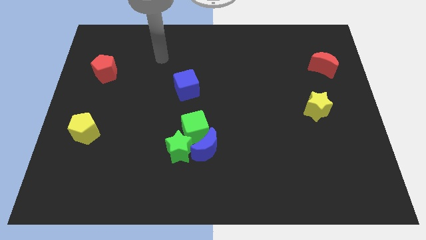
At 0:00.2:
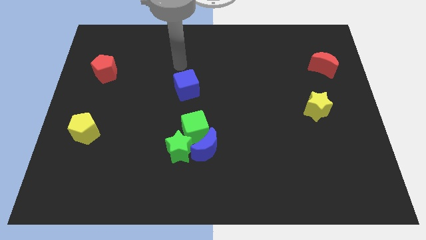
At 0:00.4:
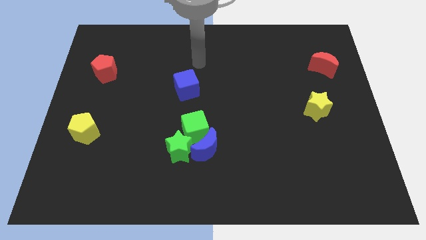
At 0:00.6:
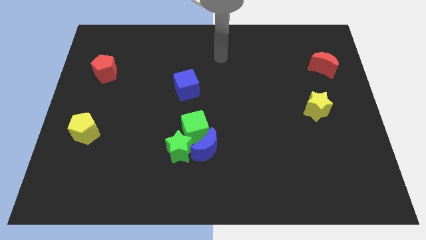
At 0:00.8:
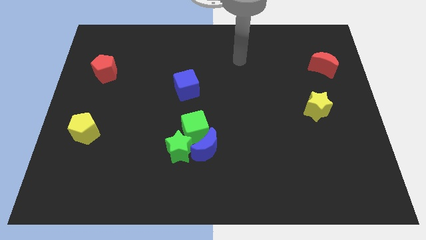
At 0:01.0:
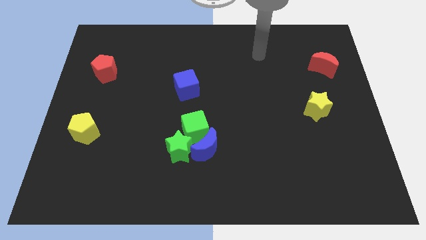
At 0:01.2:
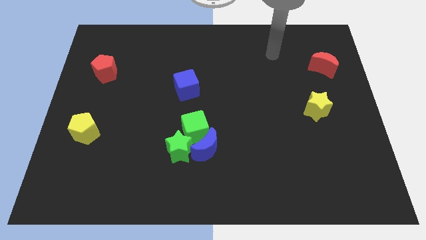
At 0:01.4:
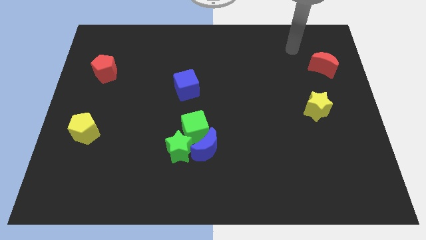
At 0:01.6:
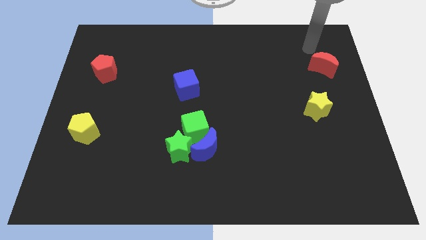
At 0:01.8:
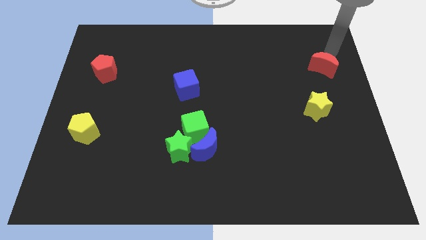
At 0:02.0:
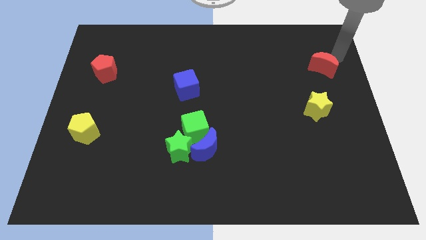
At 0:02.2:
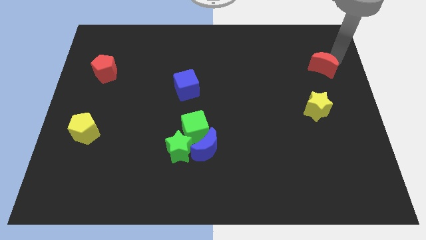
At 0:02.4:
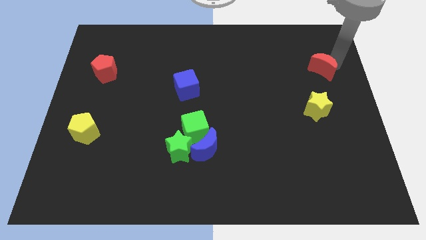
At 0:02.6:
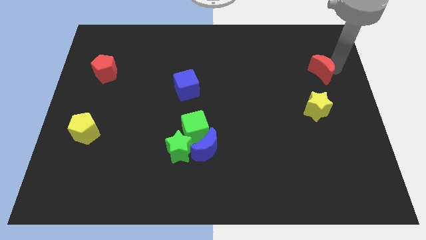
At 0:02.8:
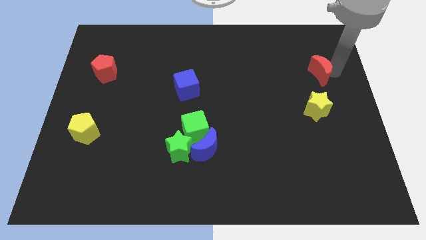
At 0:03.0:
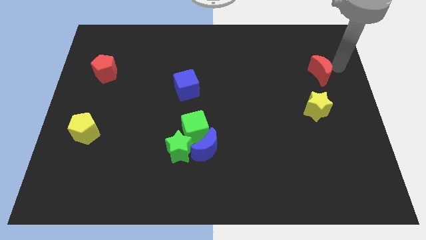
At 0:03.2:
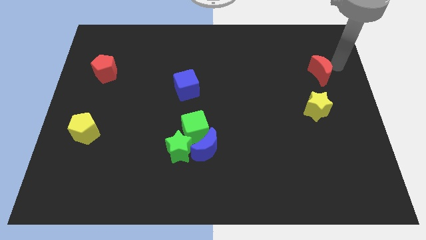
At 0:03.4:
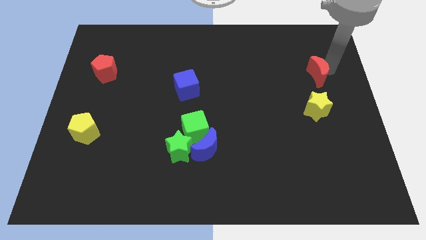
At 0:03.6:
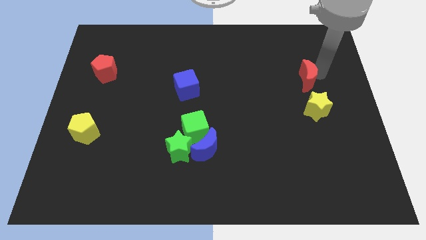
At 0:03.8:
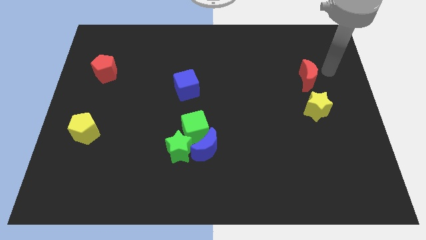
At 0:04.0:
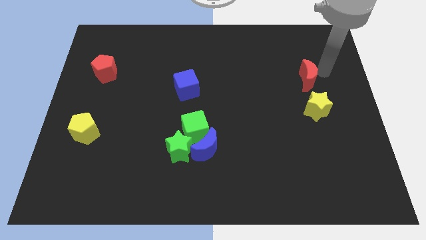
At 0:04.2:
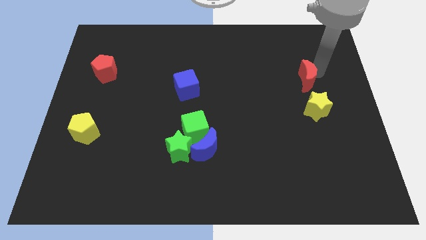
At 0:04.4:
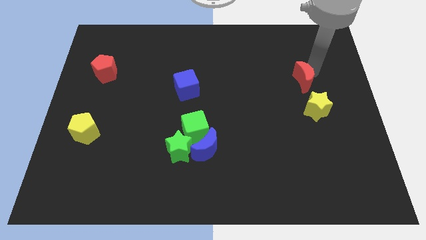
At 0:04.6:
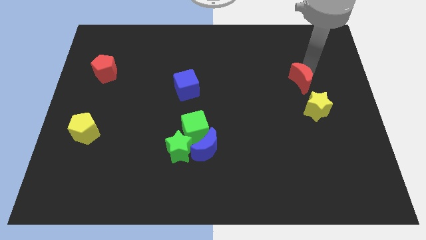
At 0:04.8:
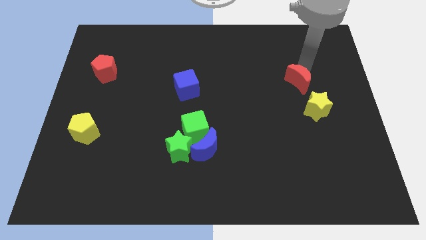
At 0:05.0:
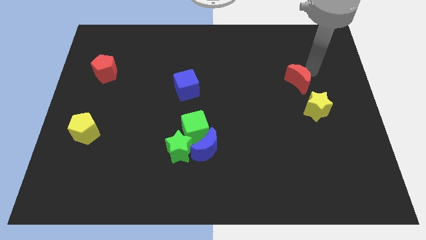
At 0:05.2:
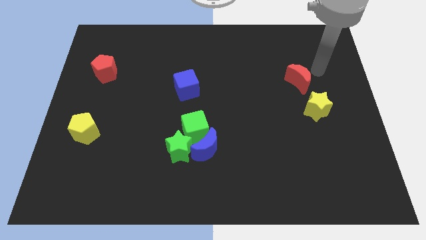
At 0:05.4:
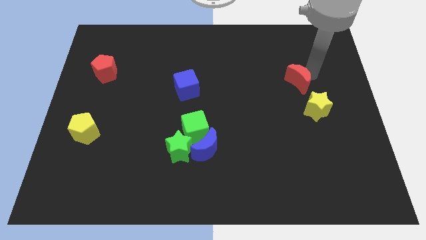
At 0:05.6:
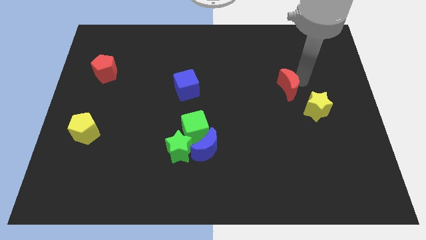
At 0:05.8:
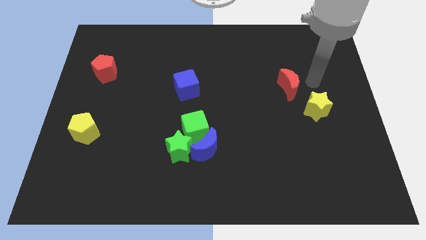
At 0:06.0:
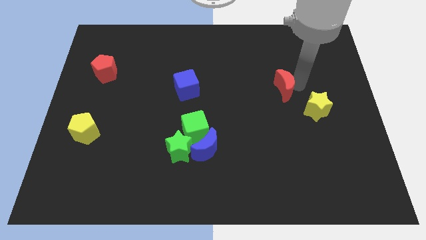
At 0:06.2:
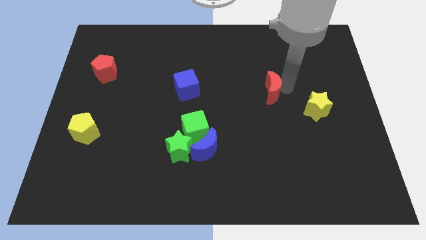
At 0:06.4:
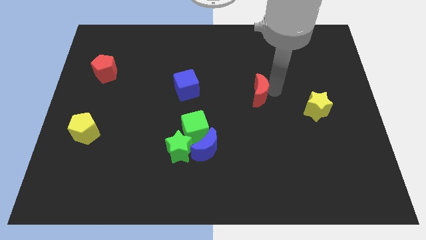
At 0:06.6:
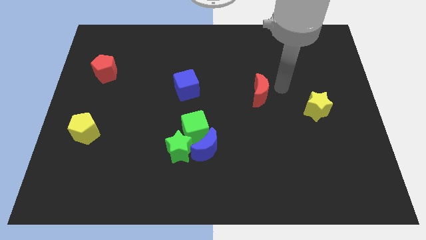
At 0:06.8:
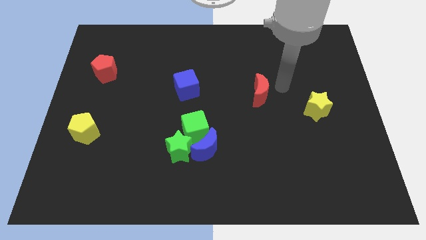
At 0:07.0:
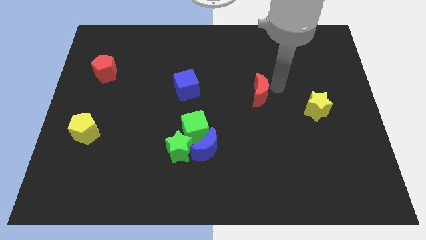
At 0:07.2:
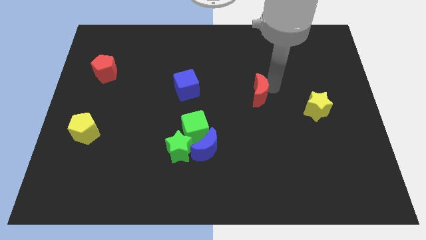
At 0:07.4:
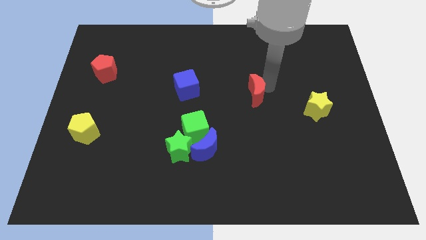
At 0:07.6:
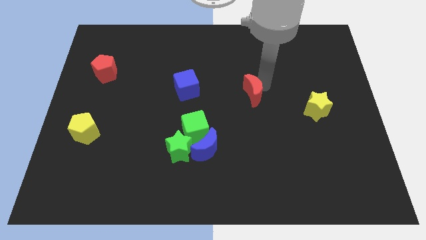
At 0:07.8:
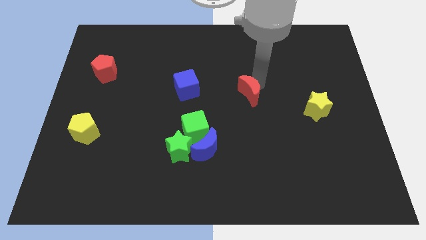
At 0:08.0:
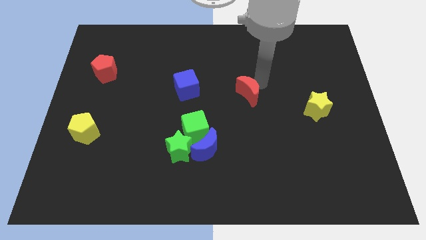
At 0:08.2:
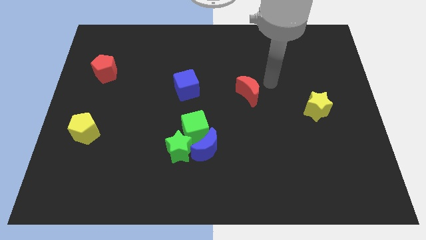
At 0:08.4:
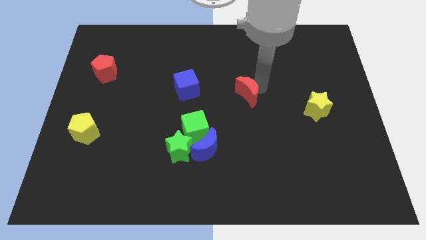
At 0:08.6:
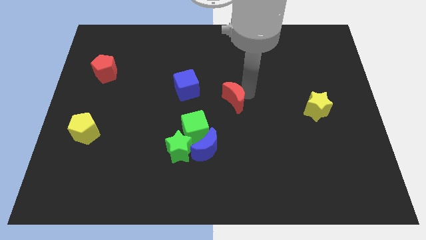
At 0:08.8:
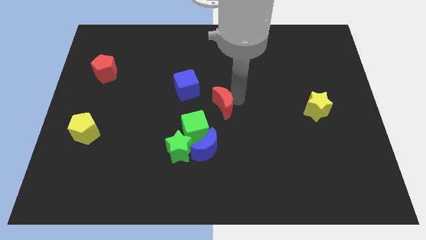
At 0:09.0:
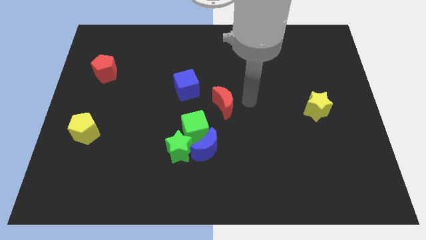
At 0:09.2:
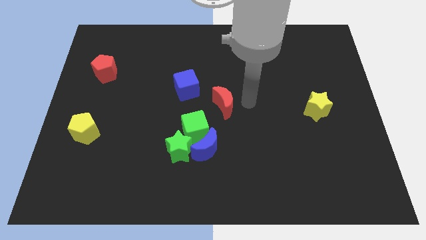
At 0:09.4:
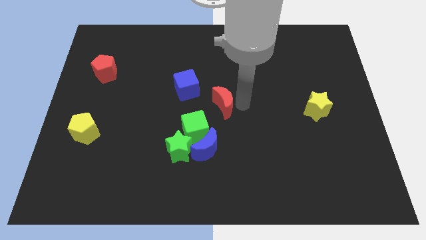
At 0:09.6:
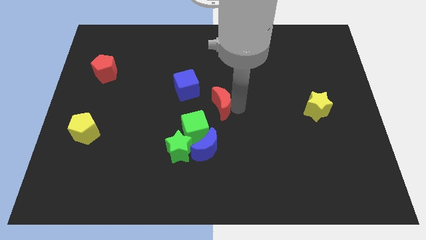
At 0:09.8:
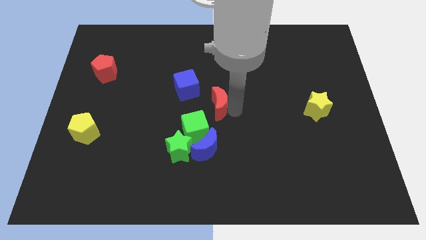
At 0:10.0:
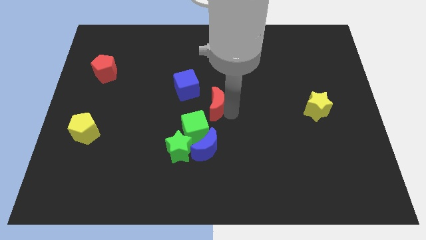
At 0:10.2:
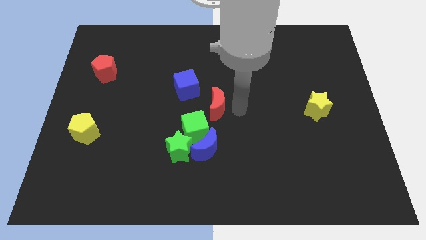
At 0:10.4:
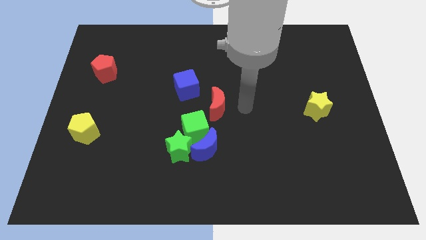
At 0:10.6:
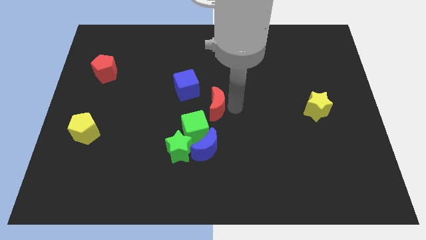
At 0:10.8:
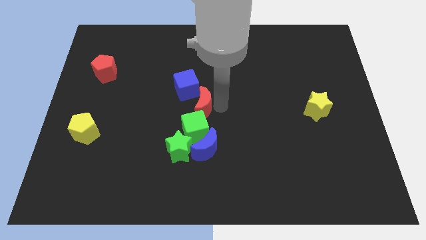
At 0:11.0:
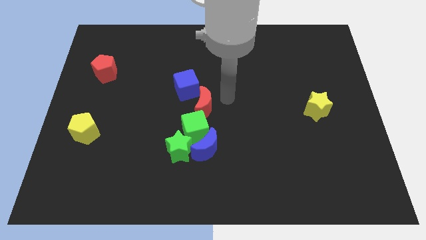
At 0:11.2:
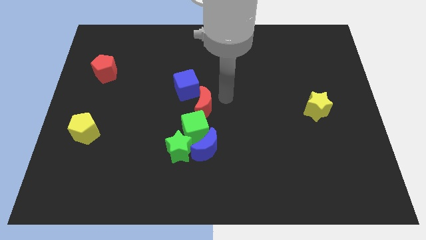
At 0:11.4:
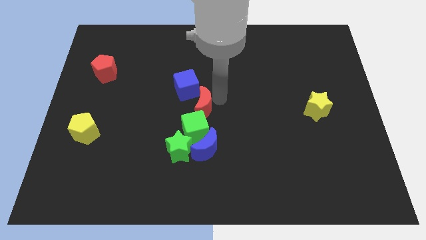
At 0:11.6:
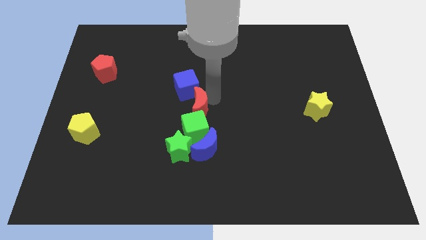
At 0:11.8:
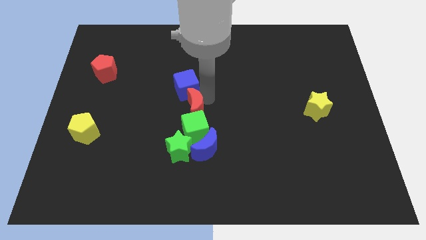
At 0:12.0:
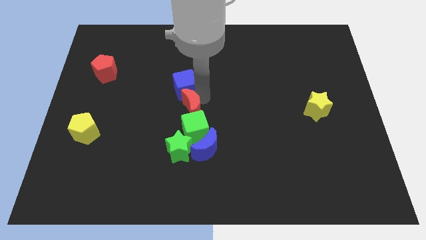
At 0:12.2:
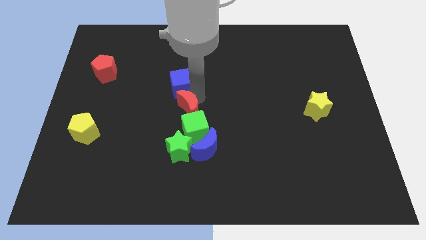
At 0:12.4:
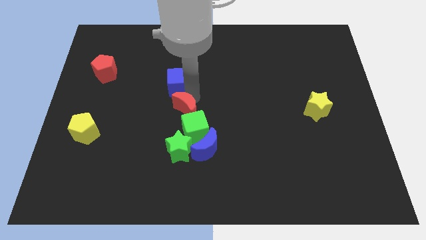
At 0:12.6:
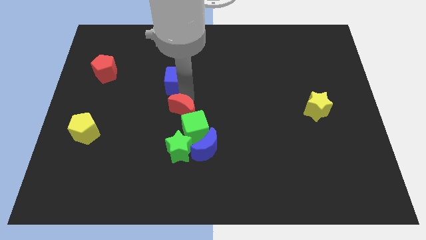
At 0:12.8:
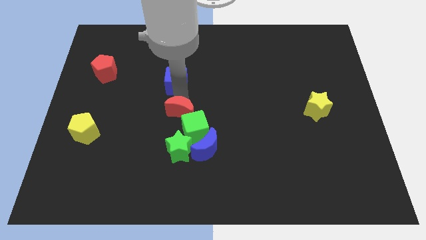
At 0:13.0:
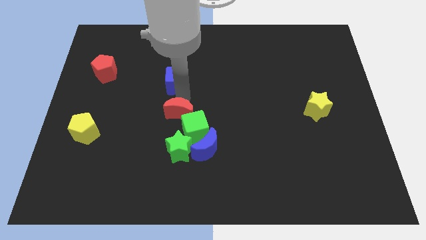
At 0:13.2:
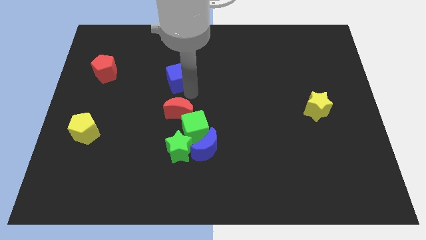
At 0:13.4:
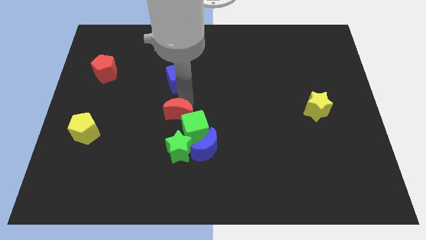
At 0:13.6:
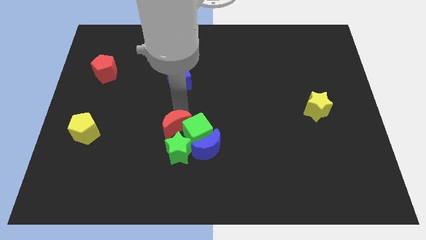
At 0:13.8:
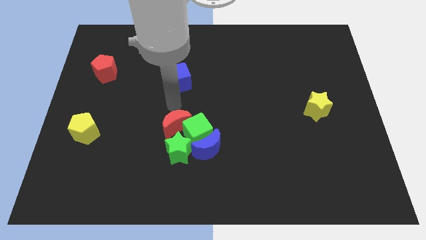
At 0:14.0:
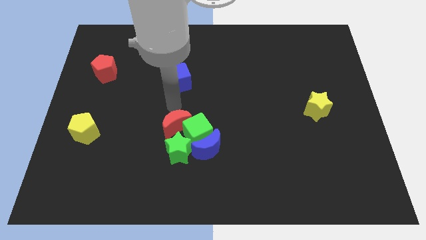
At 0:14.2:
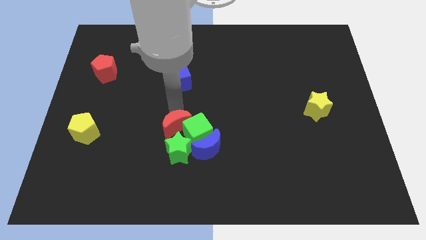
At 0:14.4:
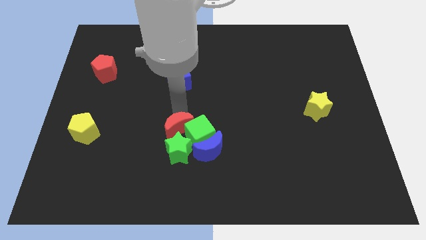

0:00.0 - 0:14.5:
push the red moon close to the green star
